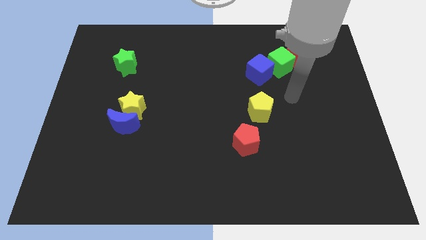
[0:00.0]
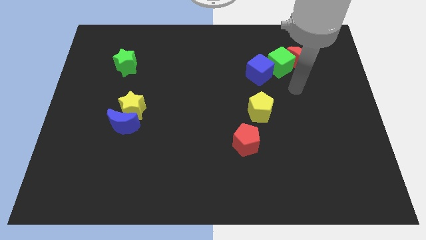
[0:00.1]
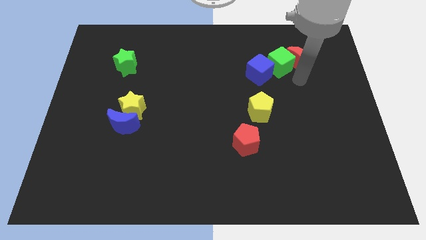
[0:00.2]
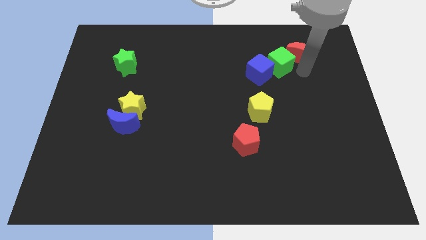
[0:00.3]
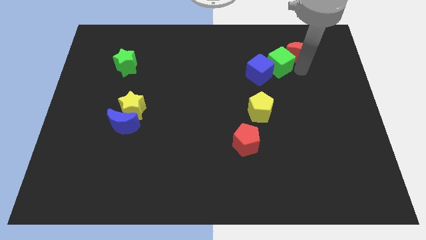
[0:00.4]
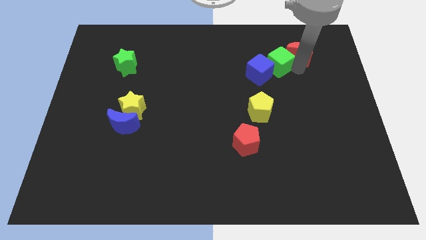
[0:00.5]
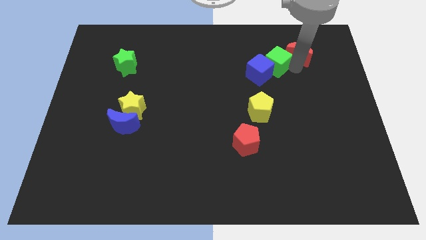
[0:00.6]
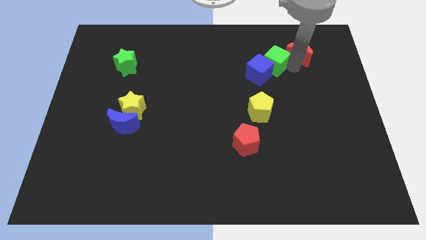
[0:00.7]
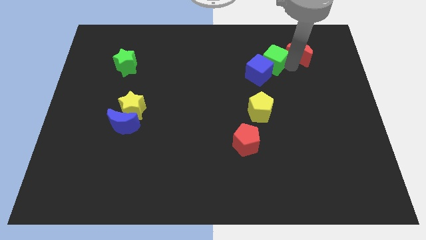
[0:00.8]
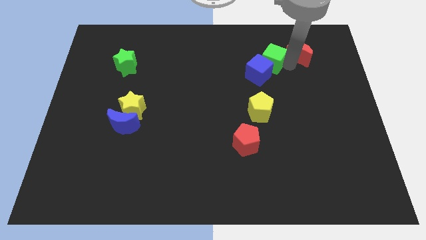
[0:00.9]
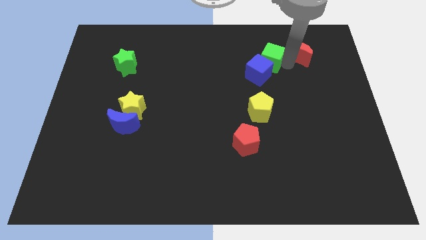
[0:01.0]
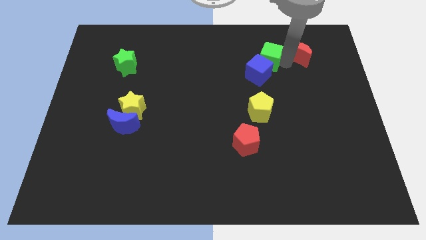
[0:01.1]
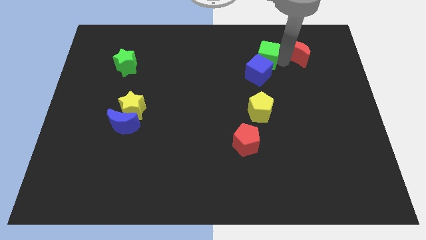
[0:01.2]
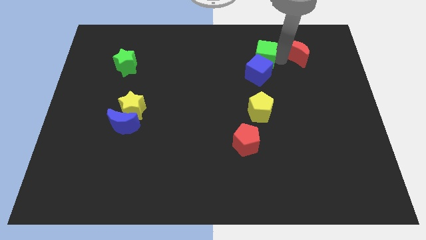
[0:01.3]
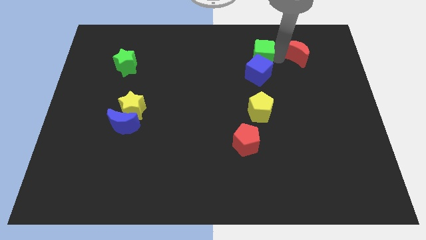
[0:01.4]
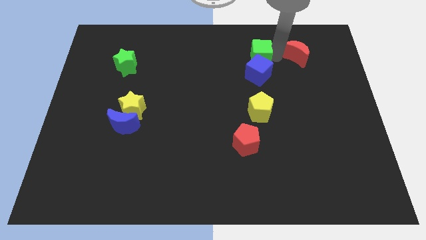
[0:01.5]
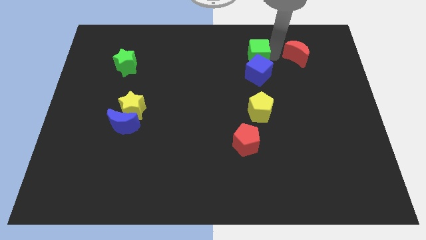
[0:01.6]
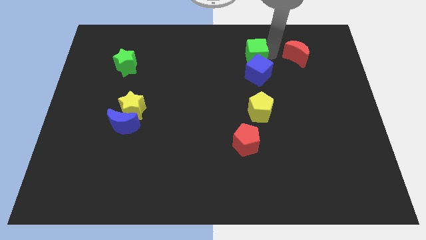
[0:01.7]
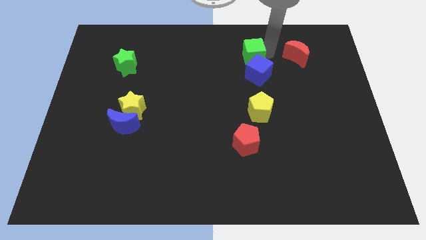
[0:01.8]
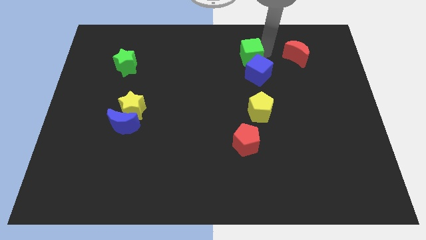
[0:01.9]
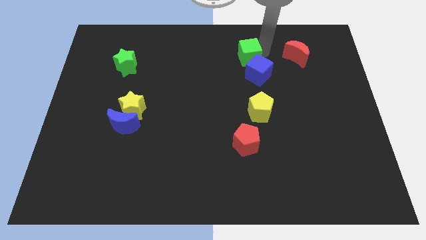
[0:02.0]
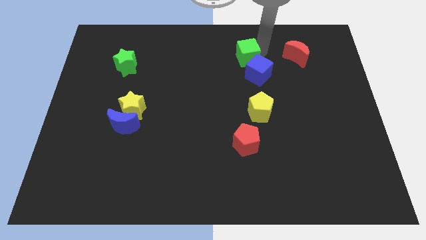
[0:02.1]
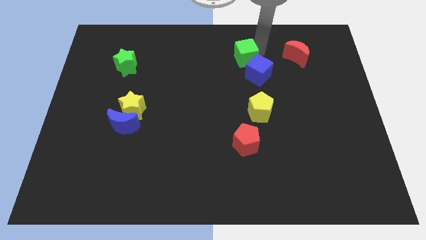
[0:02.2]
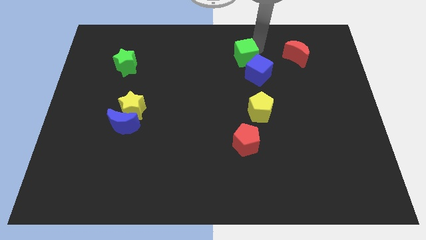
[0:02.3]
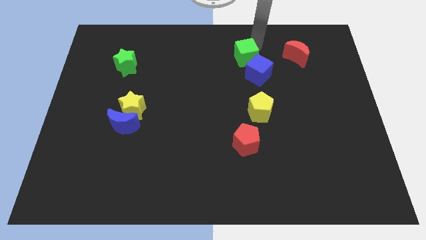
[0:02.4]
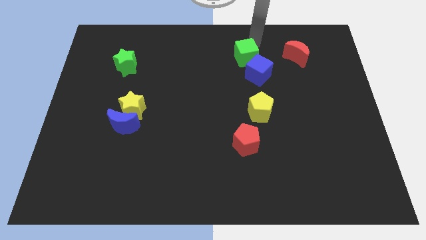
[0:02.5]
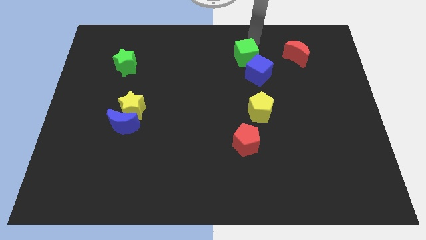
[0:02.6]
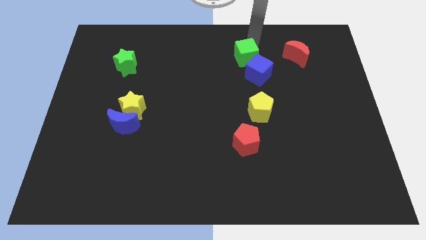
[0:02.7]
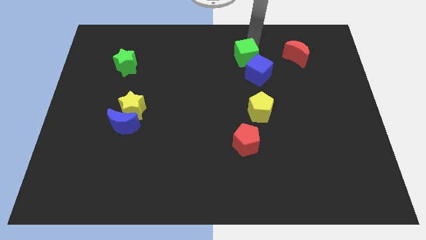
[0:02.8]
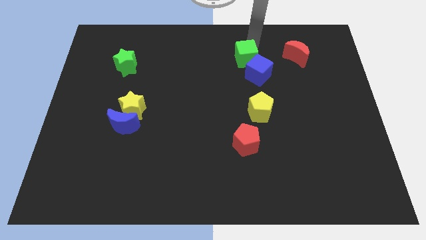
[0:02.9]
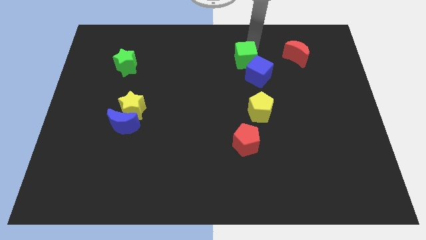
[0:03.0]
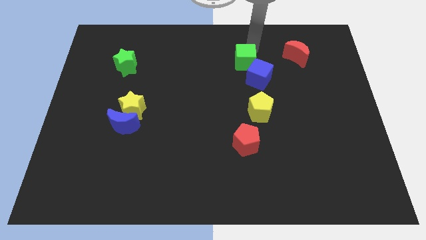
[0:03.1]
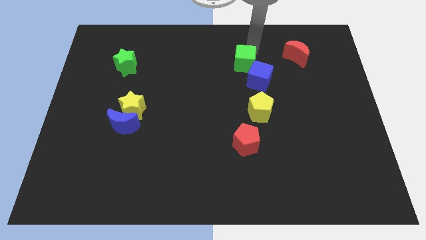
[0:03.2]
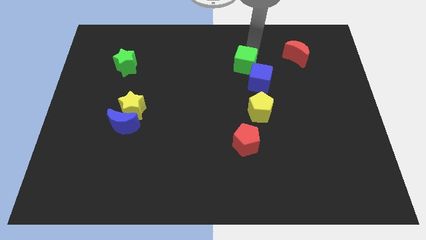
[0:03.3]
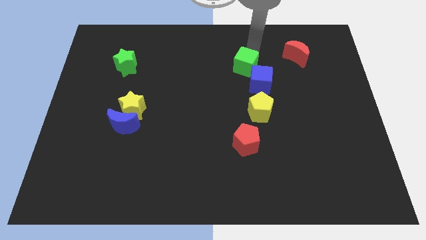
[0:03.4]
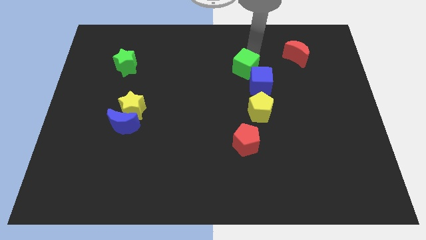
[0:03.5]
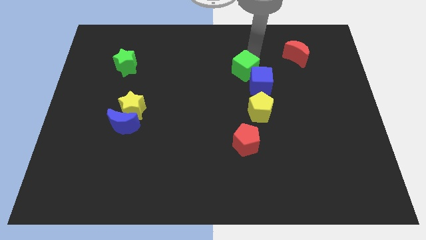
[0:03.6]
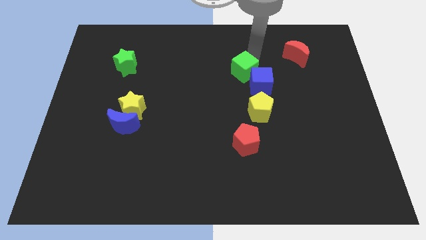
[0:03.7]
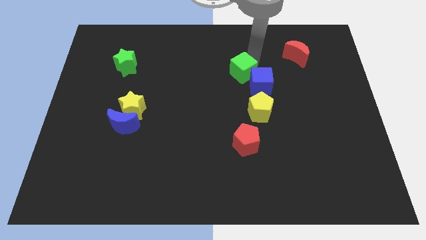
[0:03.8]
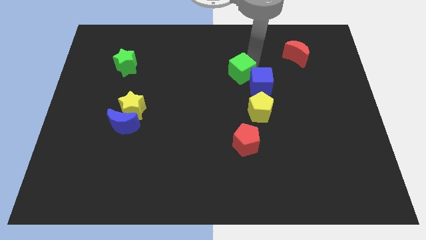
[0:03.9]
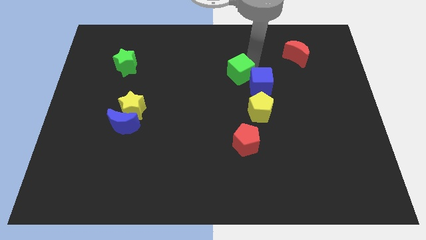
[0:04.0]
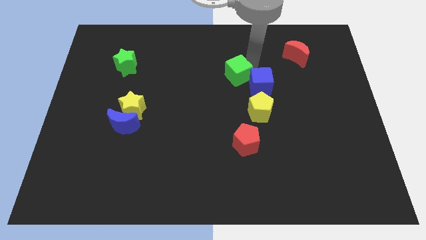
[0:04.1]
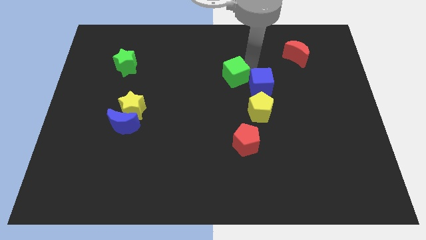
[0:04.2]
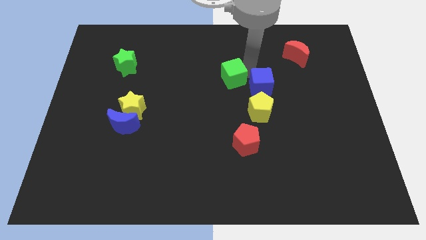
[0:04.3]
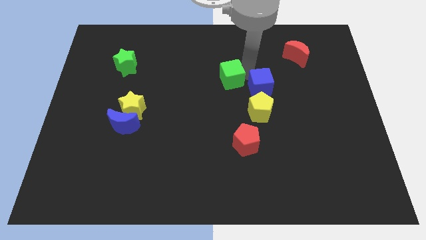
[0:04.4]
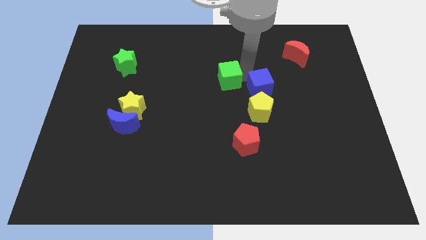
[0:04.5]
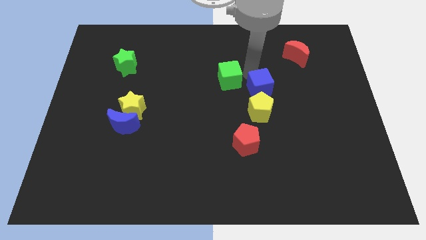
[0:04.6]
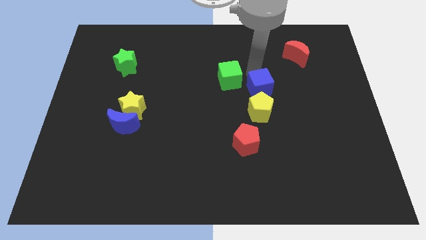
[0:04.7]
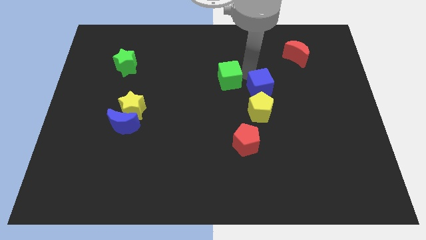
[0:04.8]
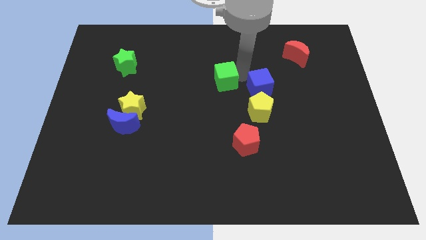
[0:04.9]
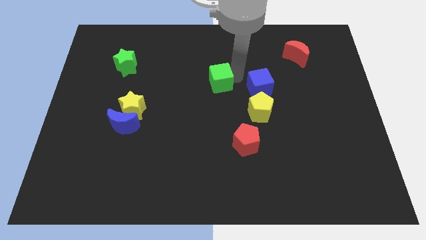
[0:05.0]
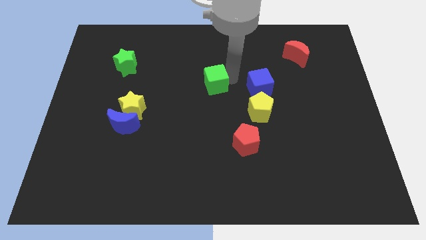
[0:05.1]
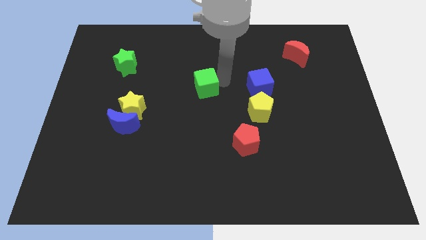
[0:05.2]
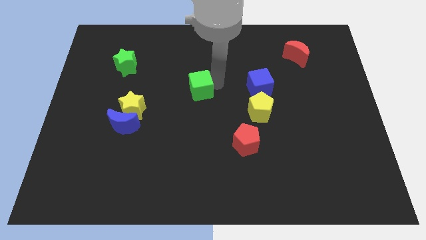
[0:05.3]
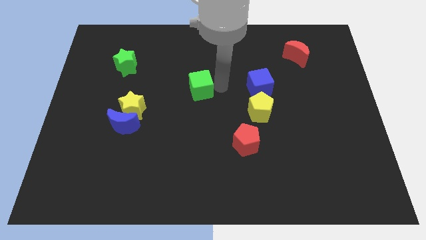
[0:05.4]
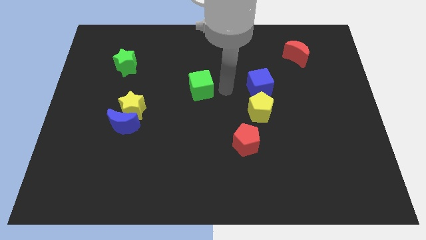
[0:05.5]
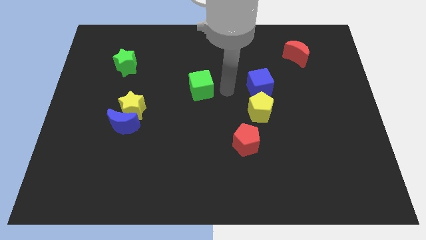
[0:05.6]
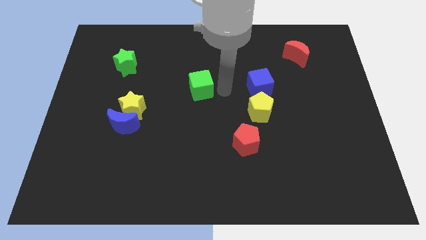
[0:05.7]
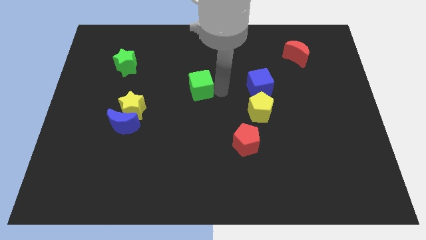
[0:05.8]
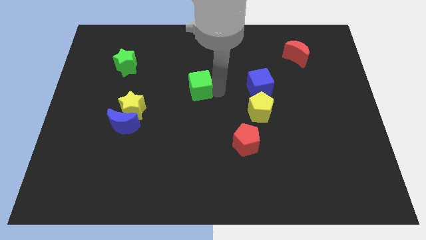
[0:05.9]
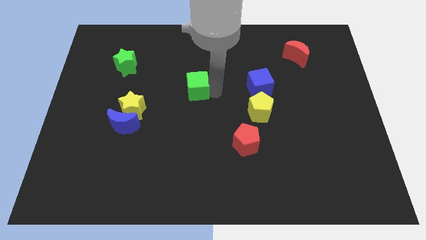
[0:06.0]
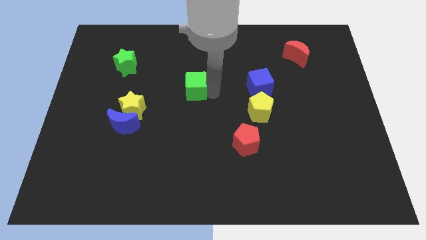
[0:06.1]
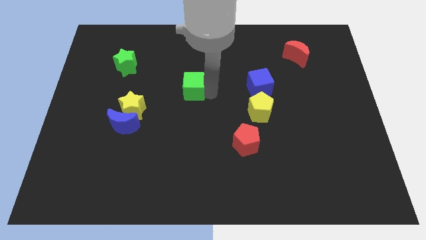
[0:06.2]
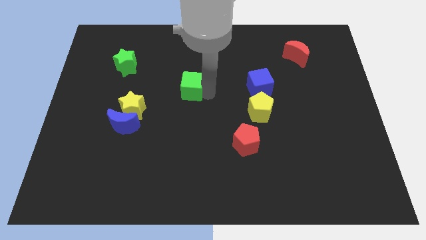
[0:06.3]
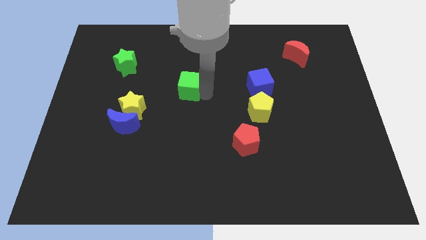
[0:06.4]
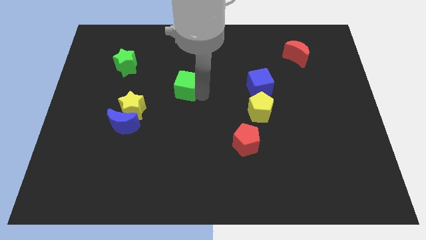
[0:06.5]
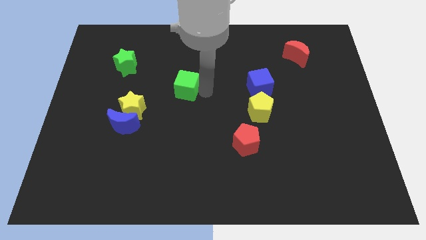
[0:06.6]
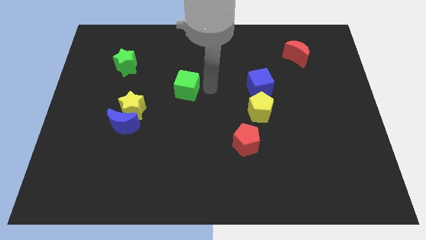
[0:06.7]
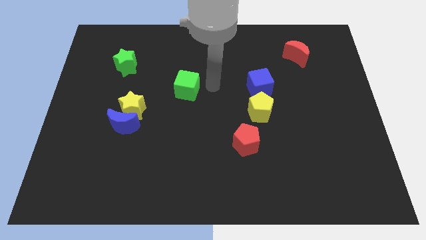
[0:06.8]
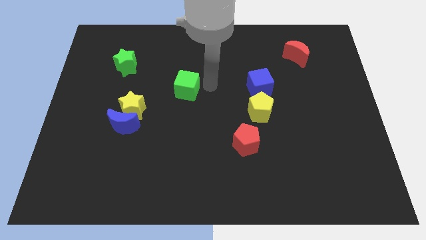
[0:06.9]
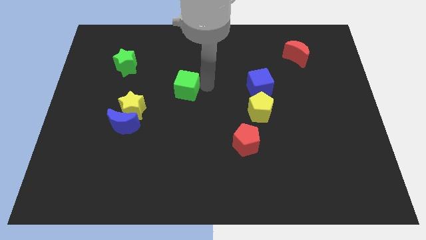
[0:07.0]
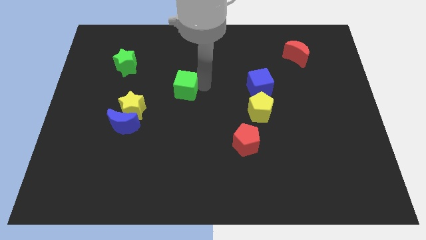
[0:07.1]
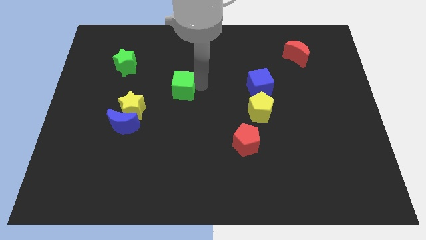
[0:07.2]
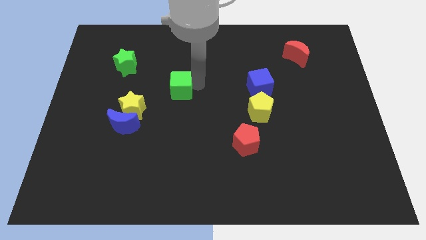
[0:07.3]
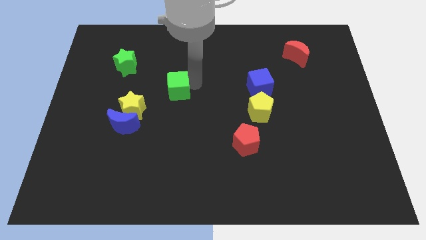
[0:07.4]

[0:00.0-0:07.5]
slide the green cube diagonally up and to the right of the yellow star
